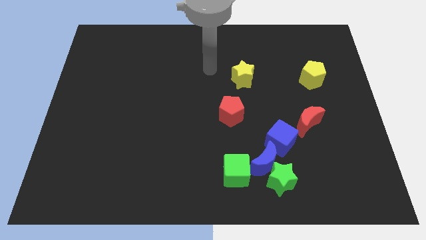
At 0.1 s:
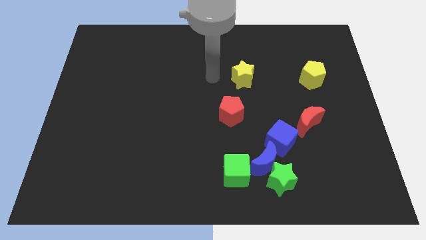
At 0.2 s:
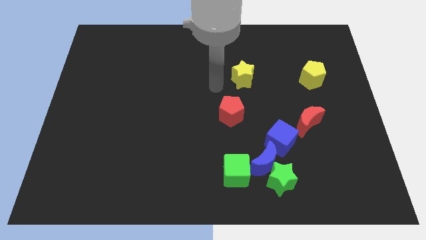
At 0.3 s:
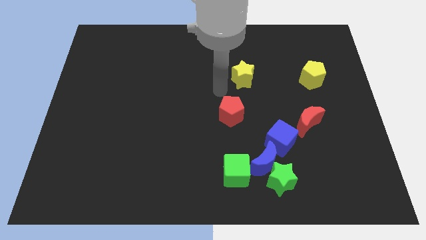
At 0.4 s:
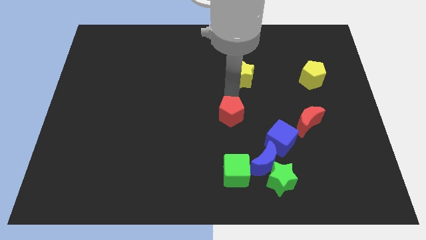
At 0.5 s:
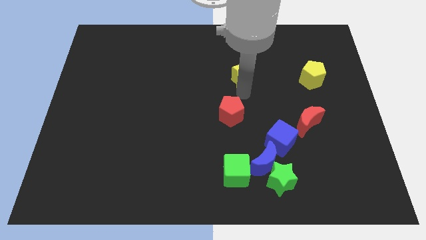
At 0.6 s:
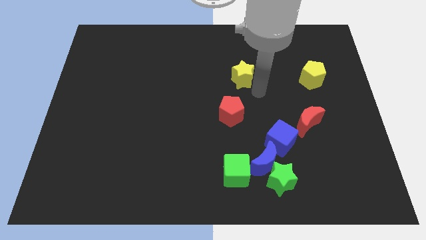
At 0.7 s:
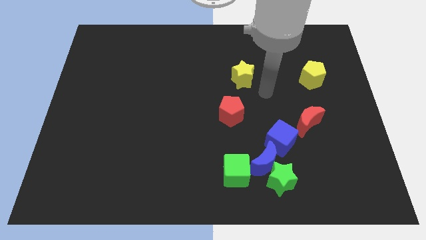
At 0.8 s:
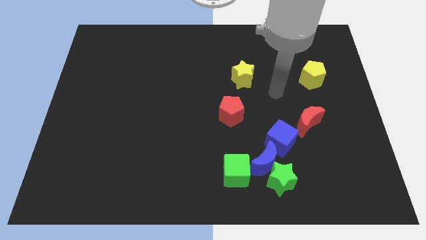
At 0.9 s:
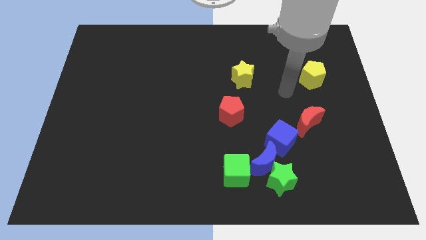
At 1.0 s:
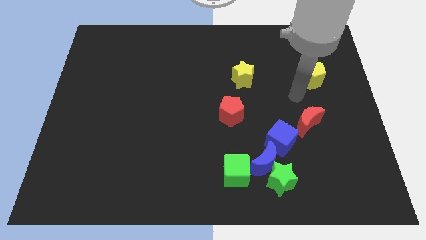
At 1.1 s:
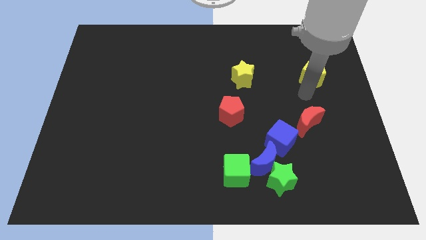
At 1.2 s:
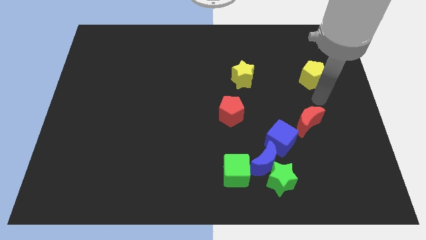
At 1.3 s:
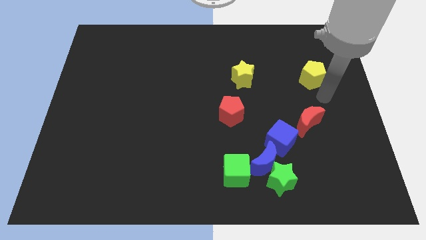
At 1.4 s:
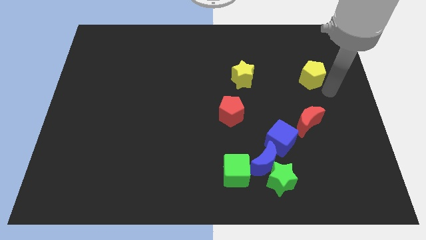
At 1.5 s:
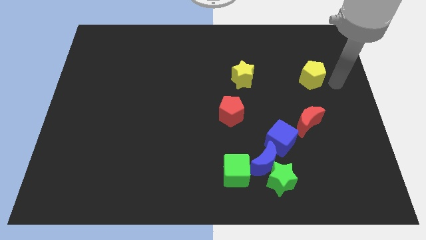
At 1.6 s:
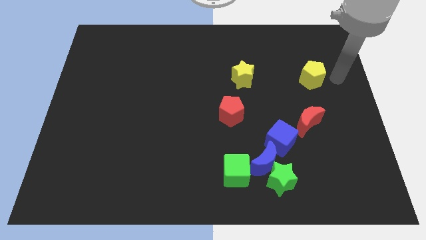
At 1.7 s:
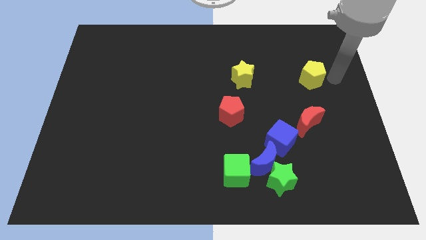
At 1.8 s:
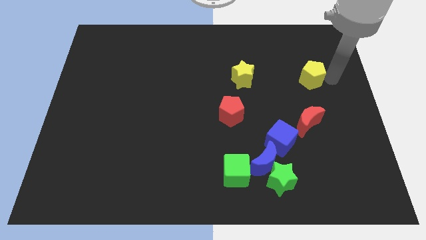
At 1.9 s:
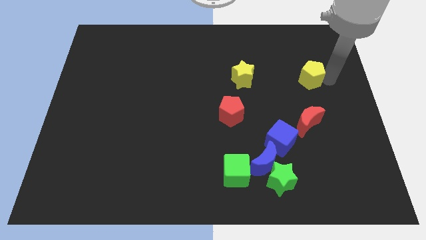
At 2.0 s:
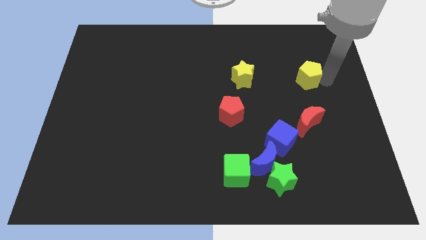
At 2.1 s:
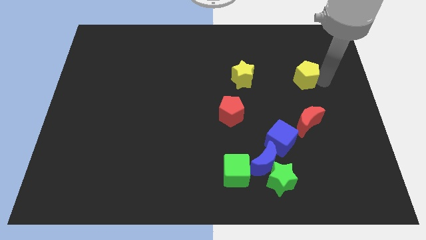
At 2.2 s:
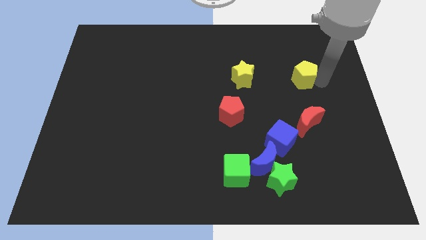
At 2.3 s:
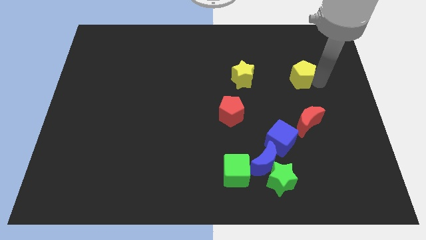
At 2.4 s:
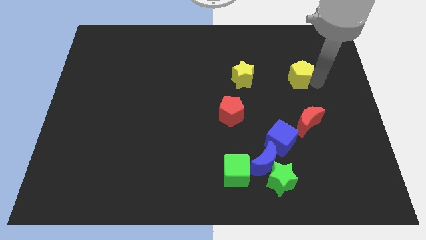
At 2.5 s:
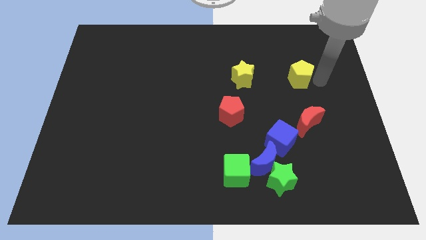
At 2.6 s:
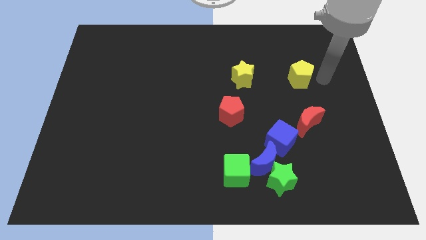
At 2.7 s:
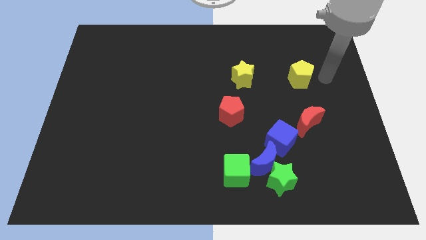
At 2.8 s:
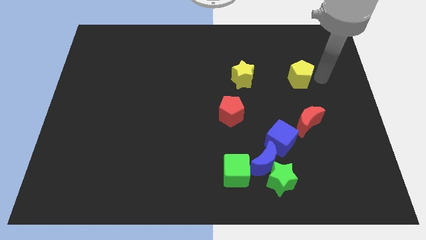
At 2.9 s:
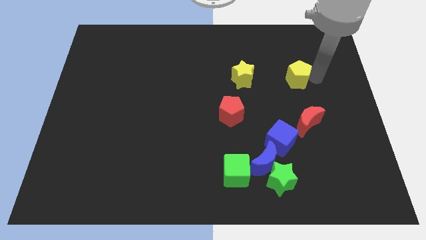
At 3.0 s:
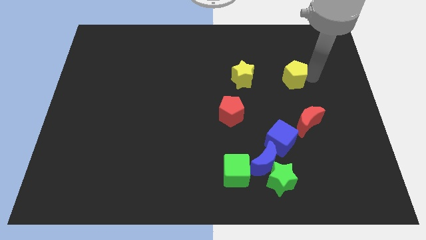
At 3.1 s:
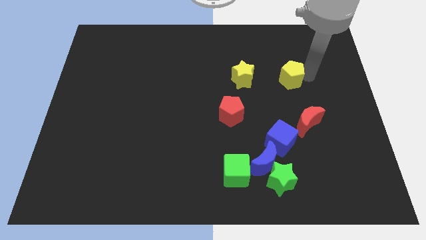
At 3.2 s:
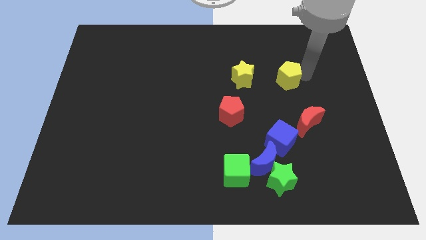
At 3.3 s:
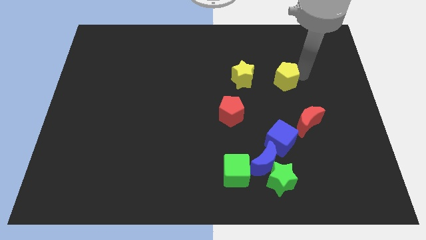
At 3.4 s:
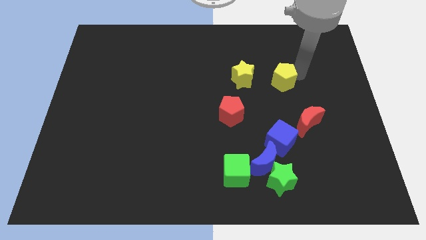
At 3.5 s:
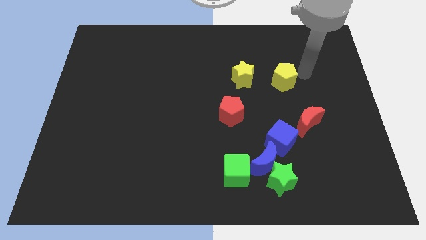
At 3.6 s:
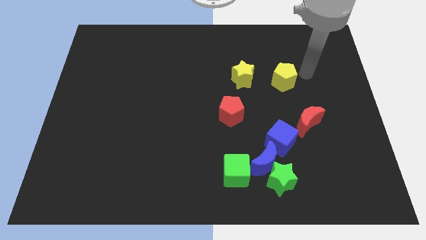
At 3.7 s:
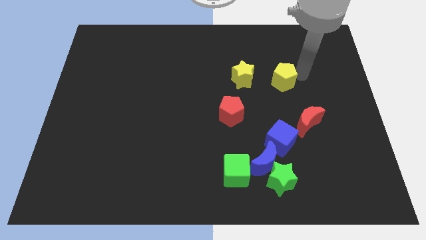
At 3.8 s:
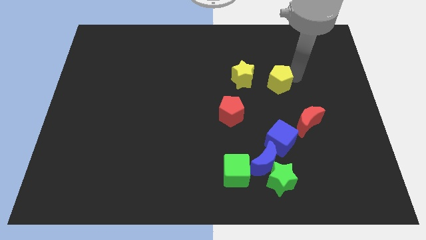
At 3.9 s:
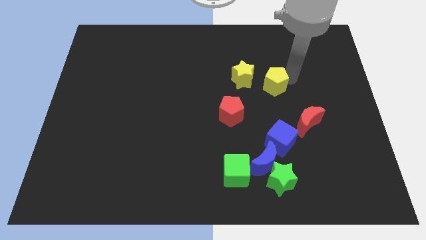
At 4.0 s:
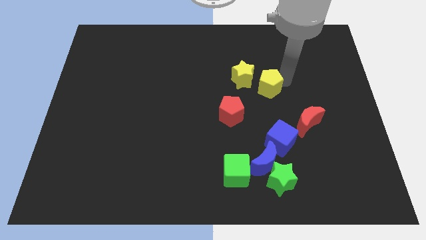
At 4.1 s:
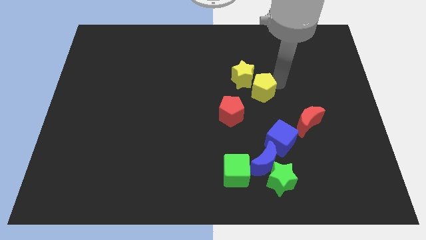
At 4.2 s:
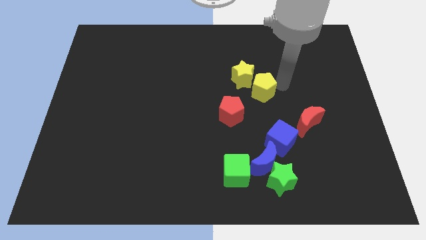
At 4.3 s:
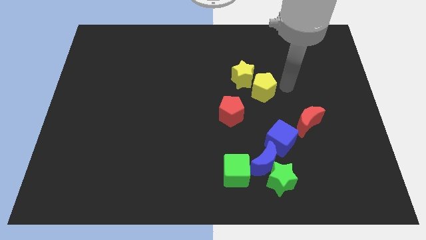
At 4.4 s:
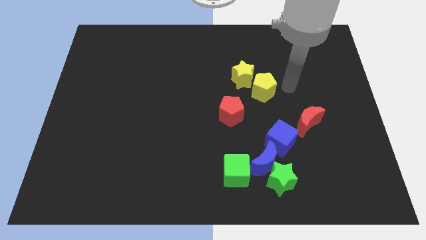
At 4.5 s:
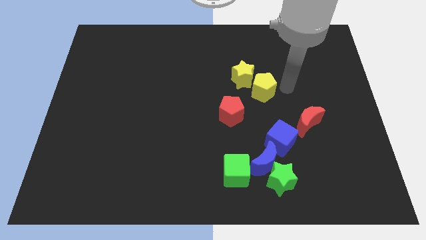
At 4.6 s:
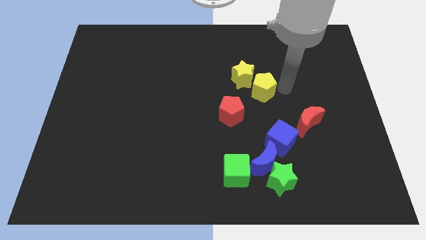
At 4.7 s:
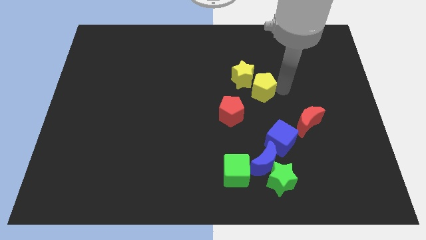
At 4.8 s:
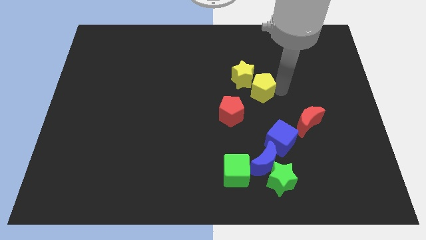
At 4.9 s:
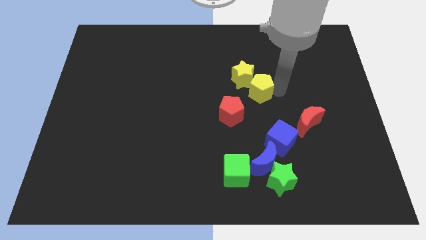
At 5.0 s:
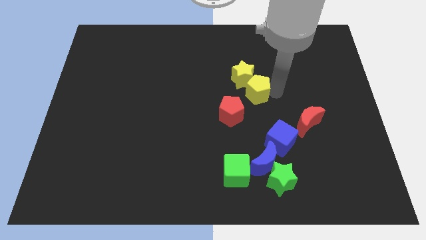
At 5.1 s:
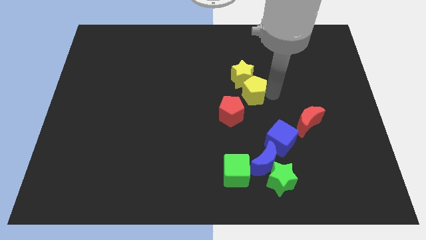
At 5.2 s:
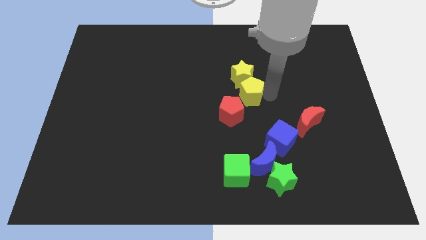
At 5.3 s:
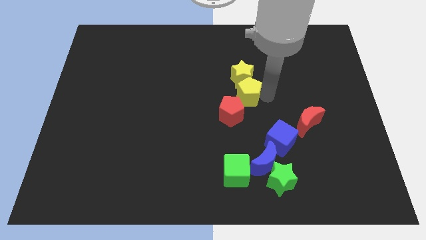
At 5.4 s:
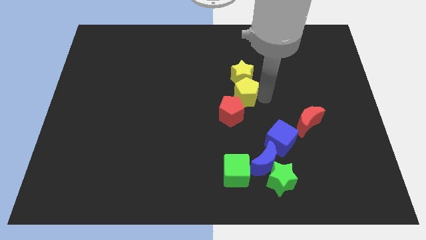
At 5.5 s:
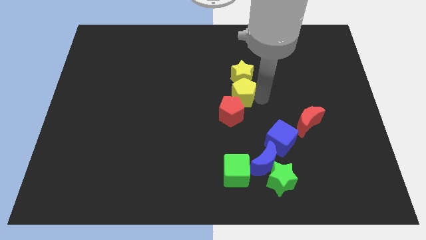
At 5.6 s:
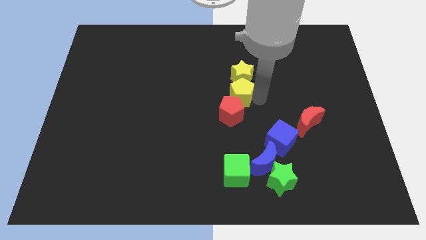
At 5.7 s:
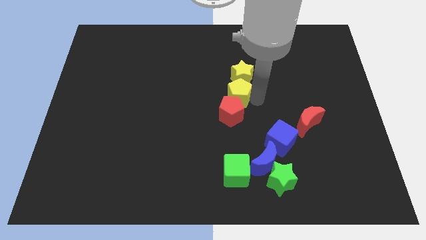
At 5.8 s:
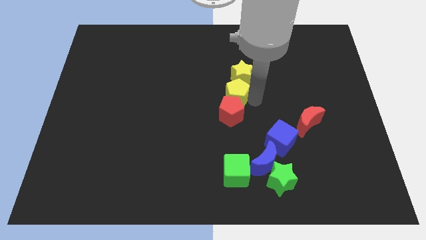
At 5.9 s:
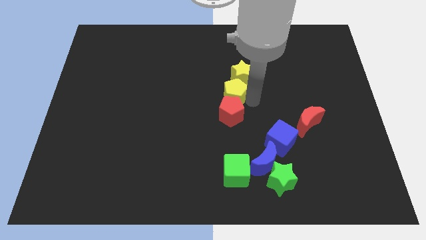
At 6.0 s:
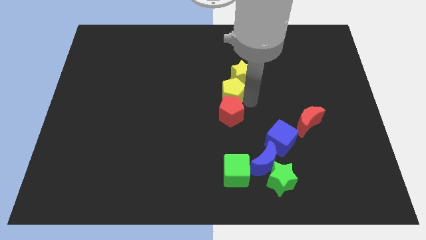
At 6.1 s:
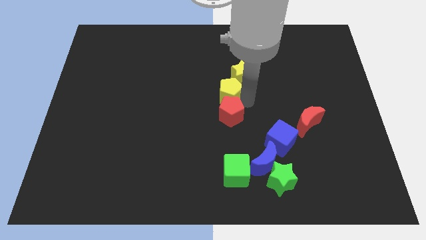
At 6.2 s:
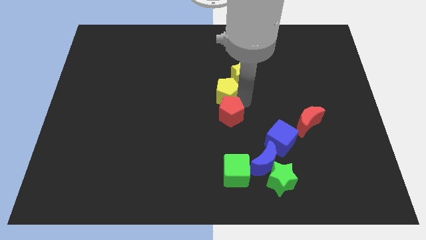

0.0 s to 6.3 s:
move the yellow pentagon to the left

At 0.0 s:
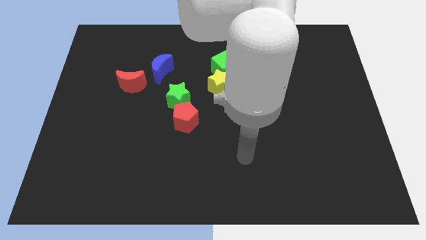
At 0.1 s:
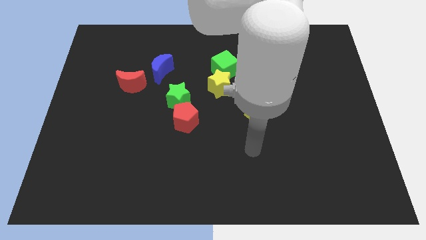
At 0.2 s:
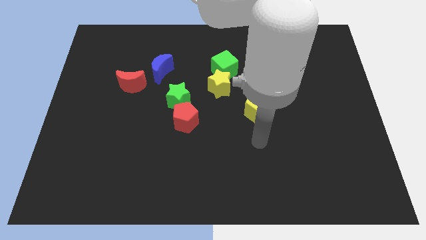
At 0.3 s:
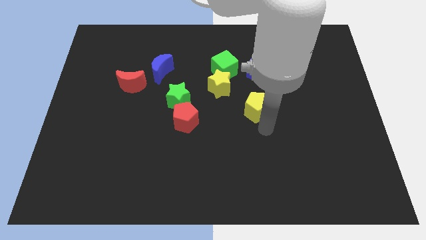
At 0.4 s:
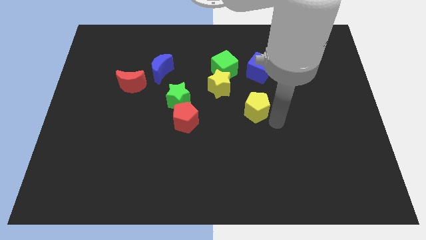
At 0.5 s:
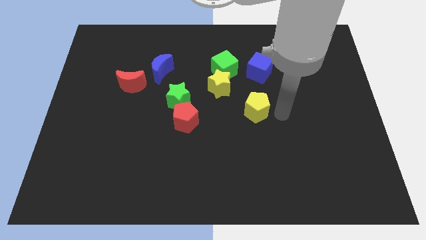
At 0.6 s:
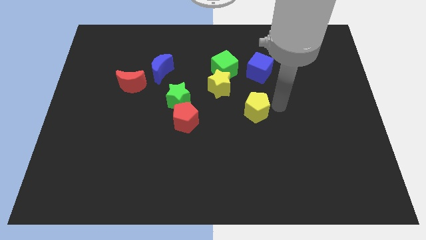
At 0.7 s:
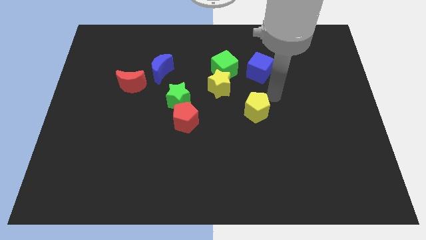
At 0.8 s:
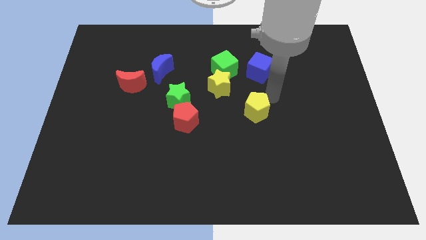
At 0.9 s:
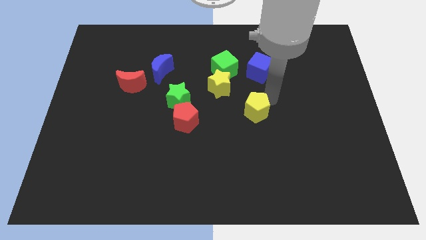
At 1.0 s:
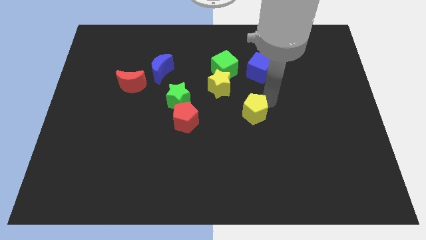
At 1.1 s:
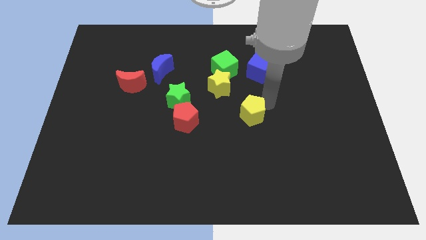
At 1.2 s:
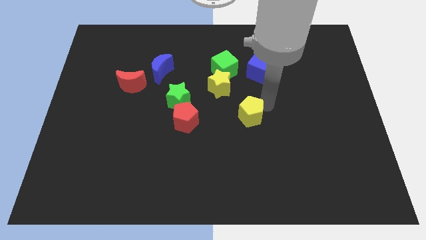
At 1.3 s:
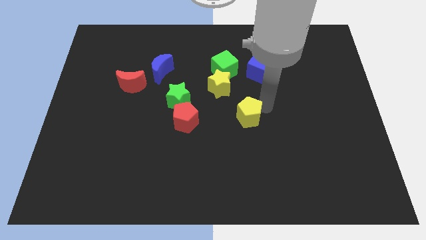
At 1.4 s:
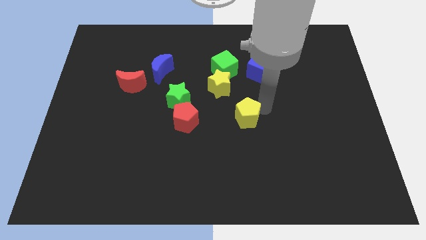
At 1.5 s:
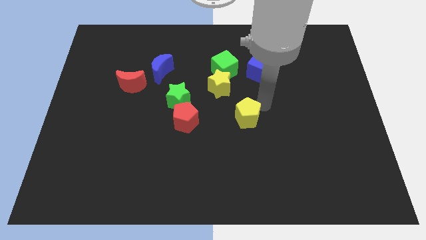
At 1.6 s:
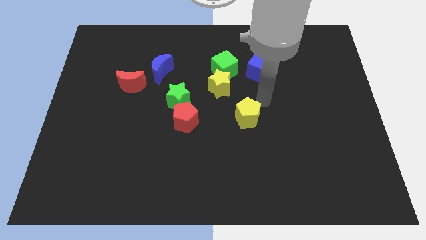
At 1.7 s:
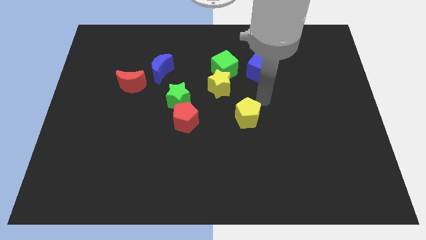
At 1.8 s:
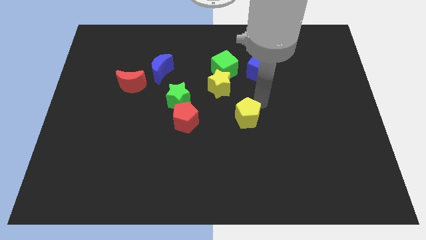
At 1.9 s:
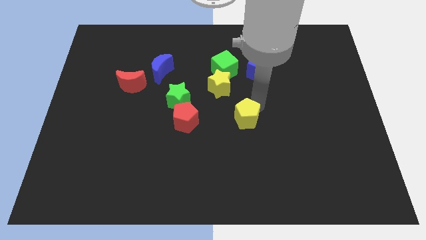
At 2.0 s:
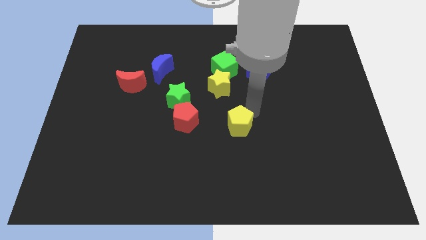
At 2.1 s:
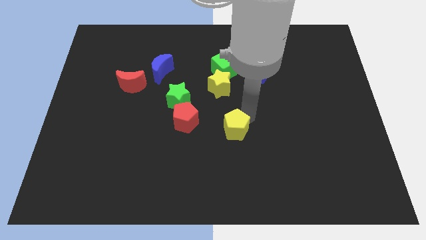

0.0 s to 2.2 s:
push the yellow pentagon diagonally downwards and to the left somewhat
